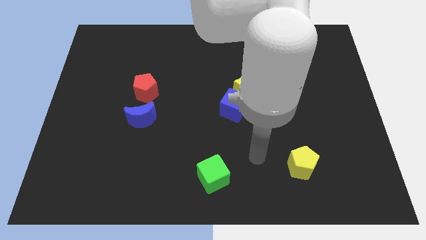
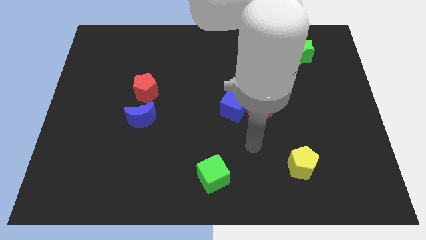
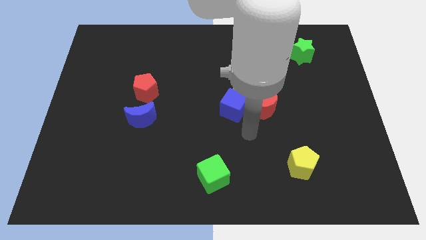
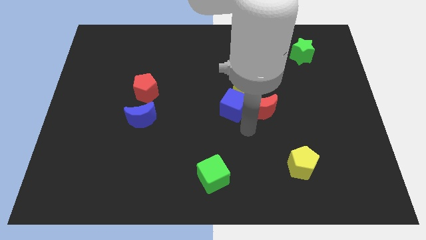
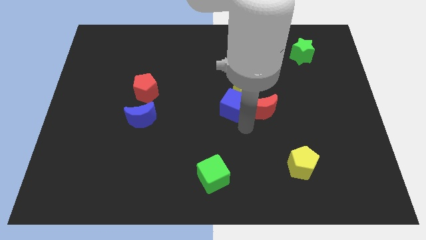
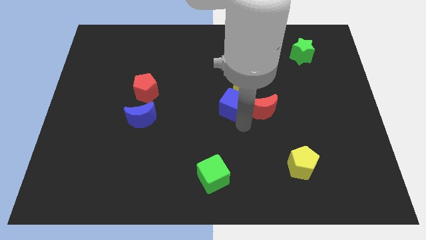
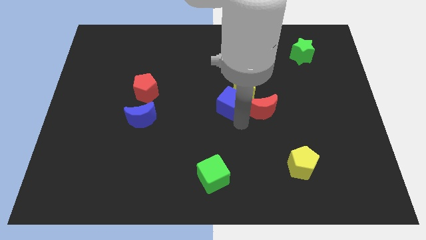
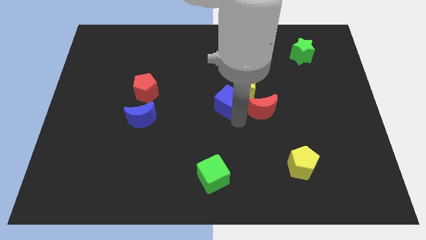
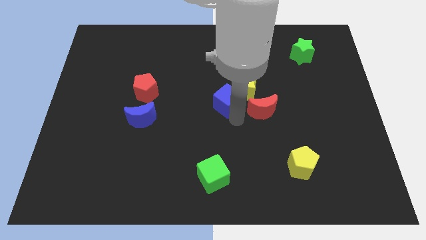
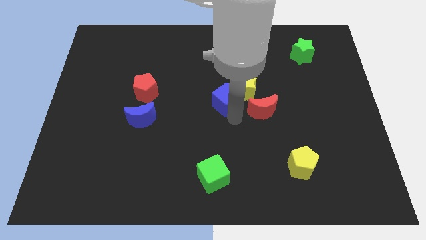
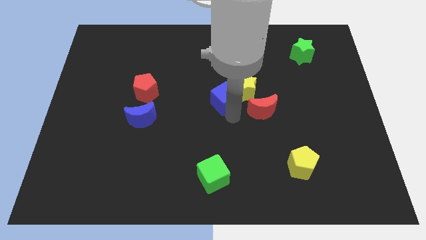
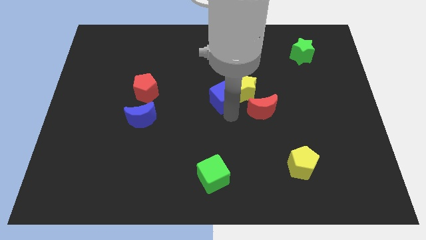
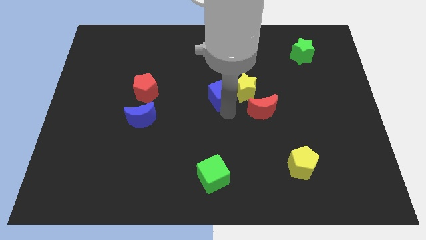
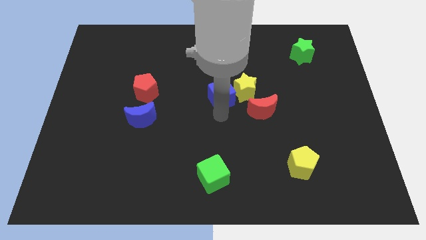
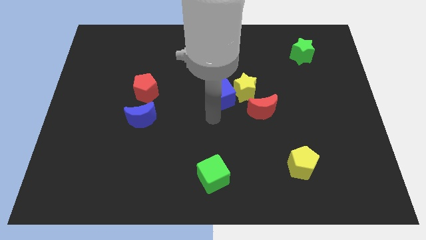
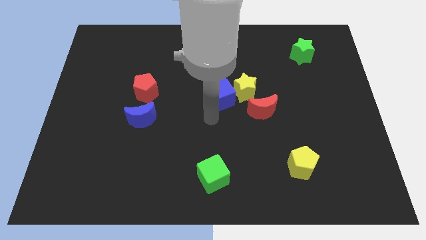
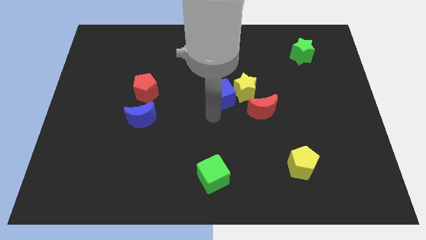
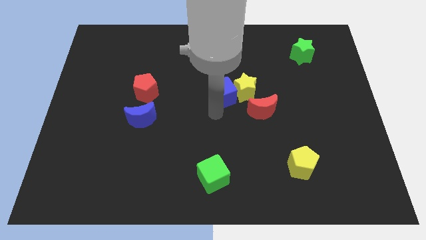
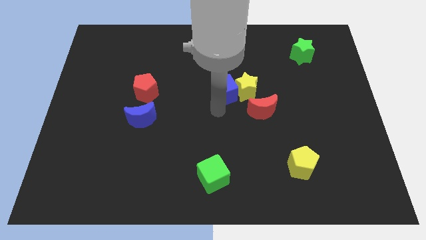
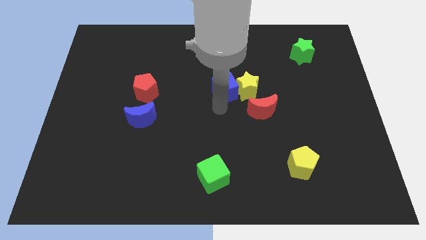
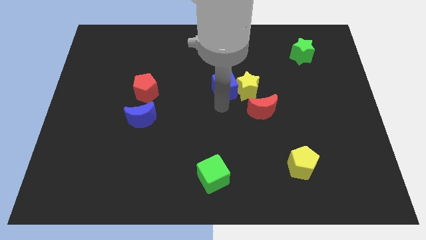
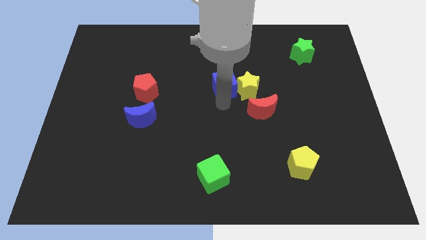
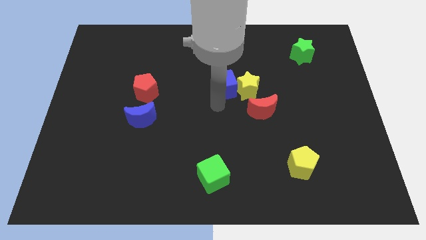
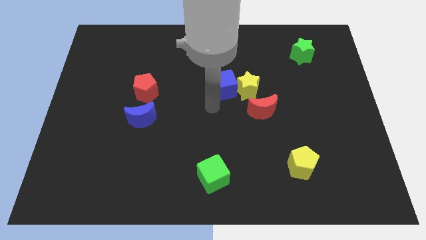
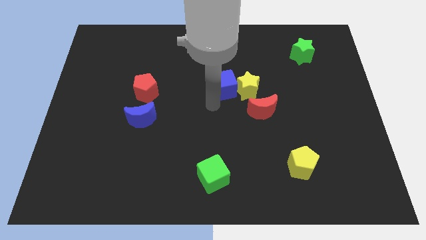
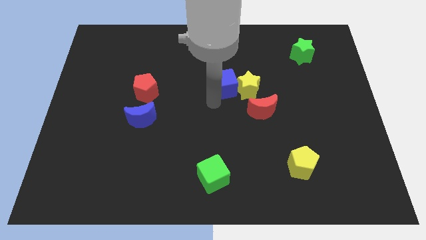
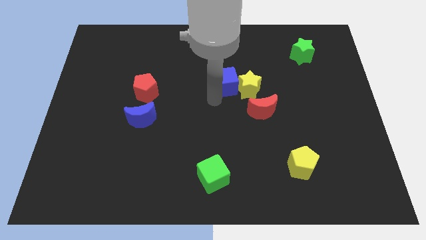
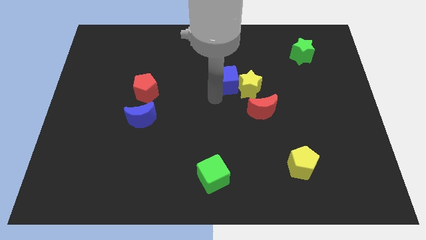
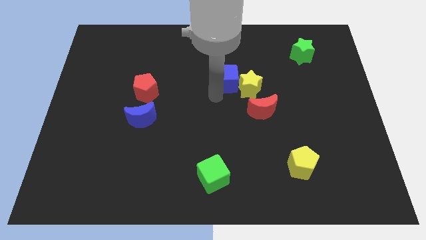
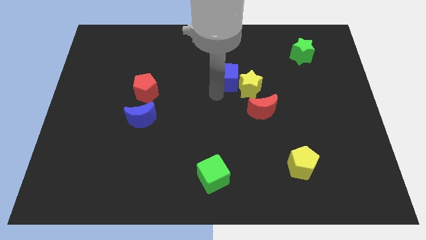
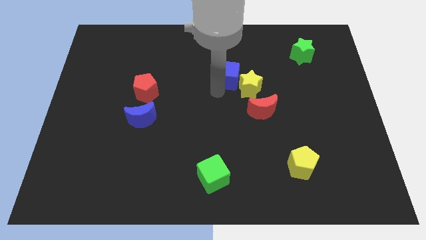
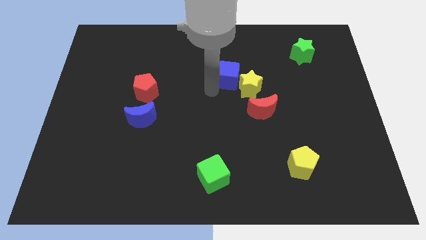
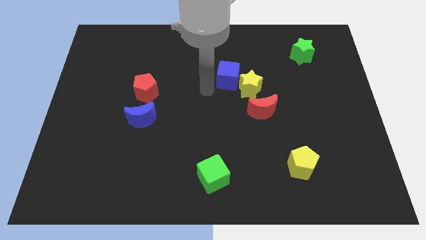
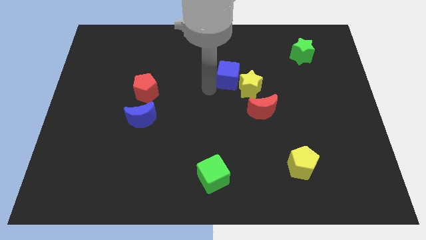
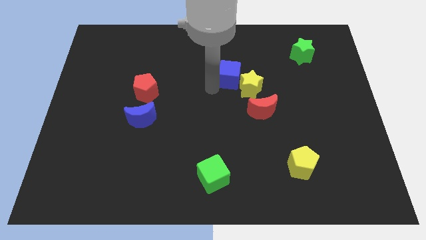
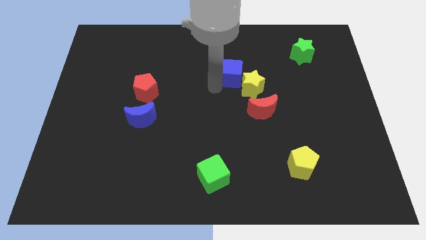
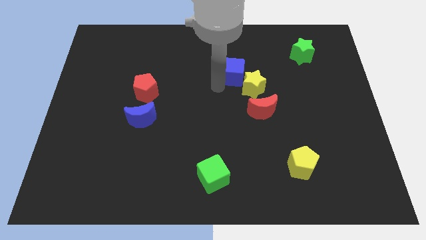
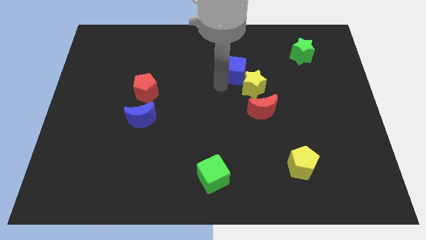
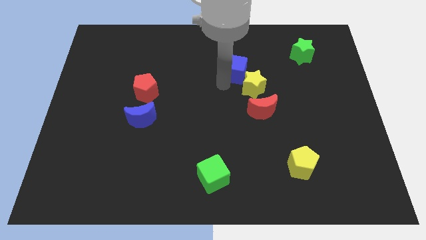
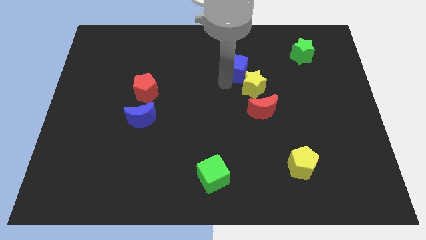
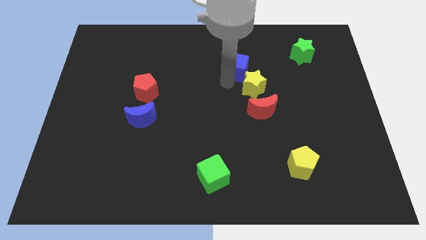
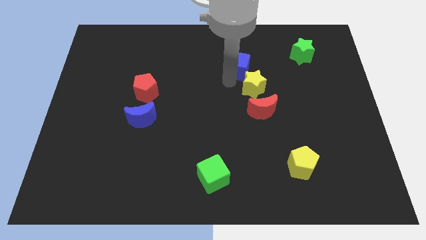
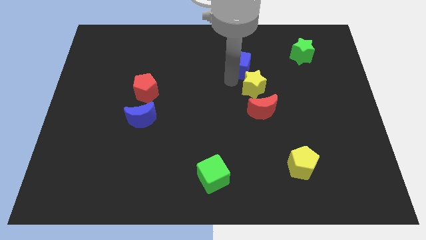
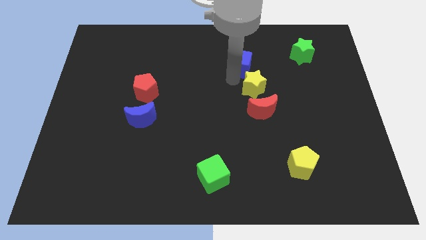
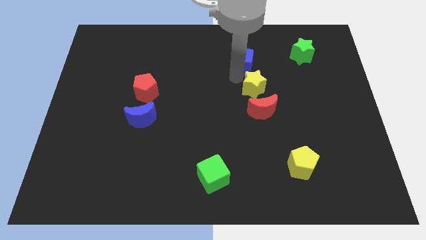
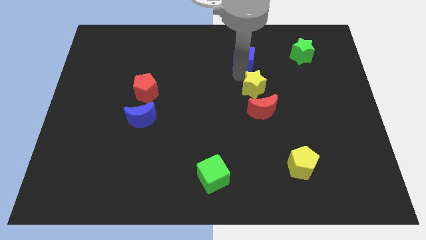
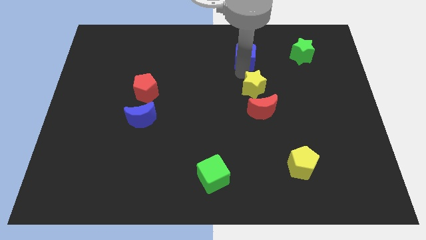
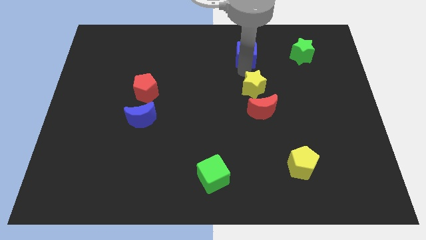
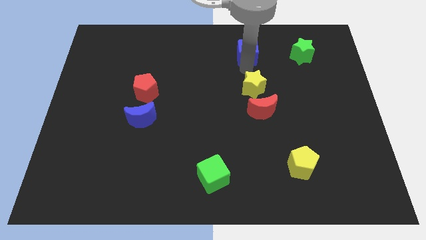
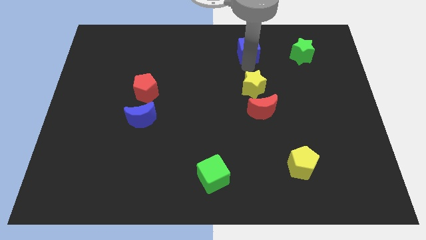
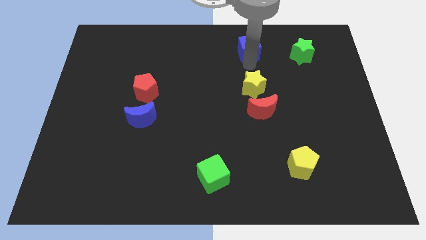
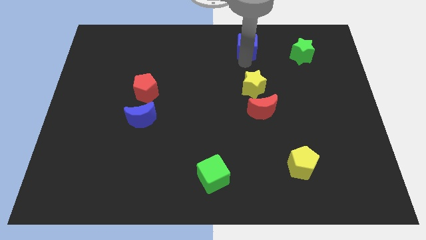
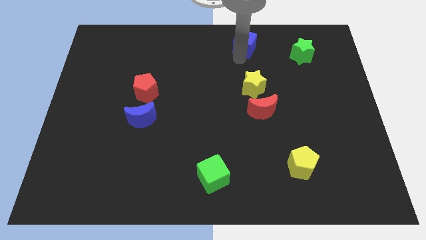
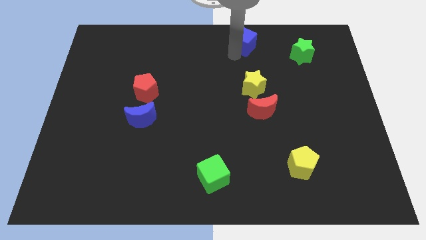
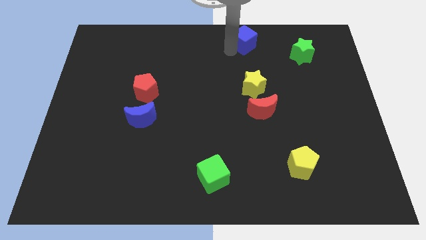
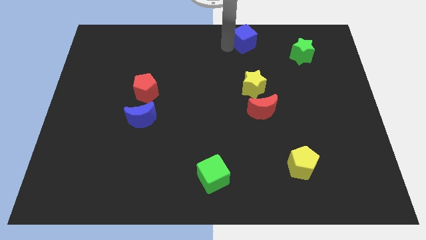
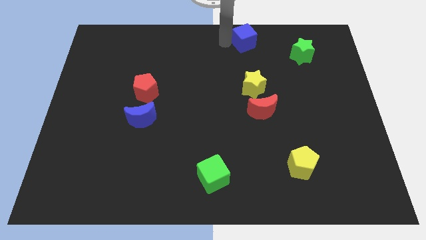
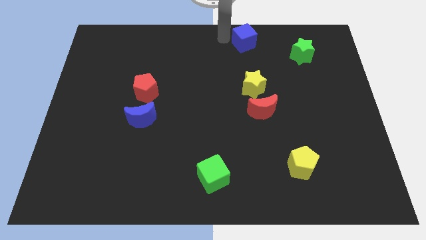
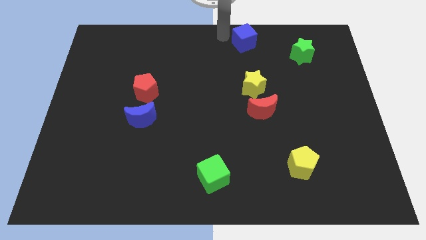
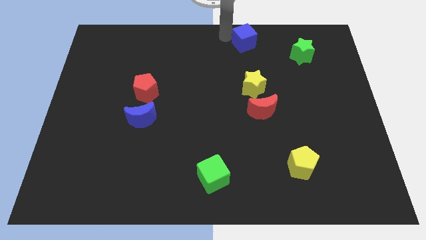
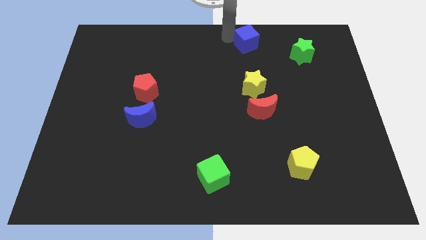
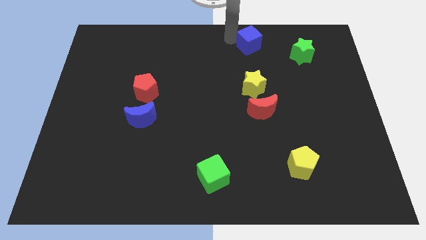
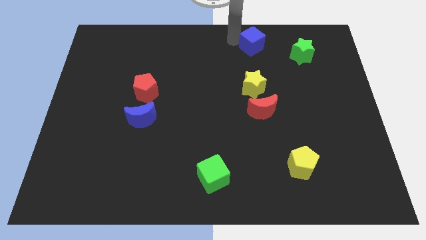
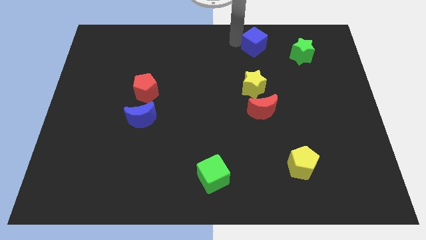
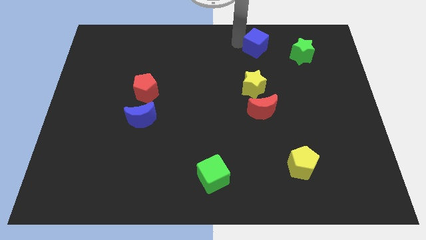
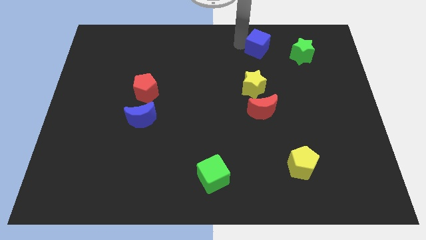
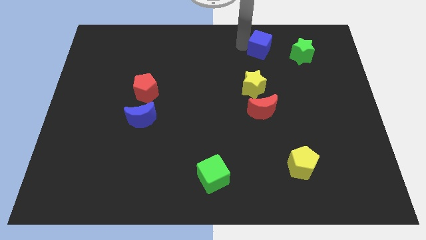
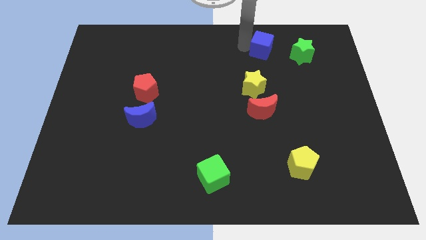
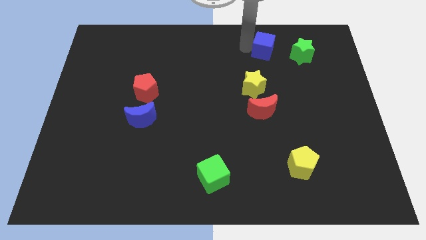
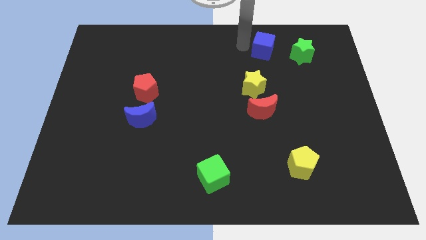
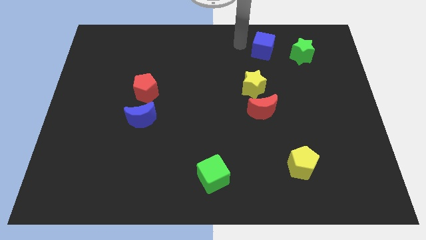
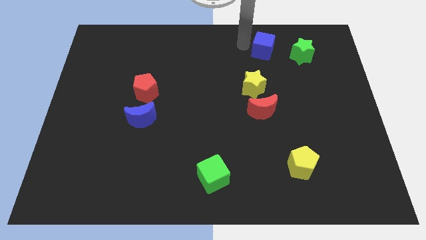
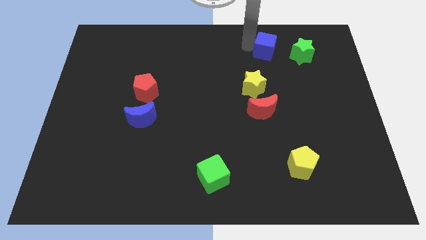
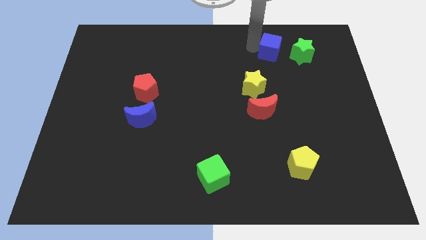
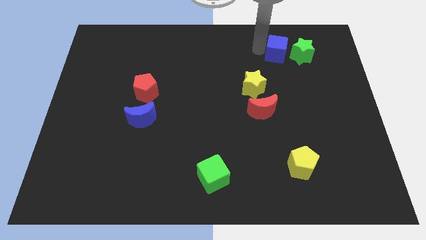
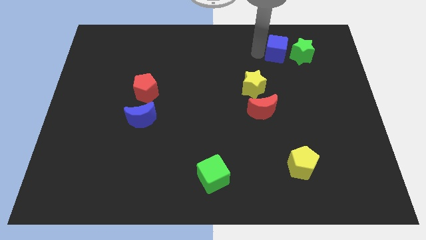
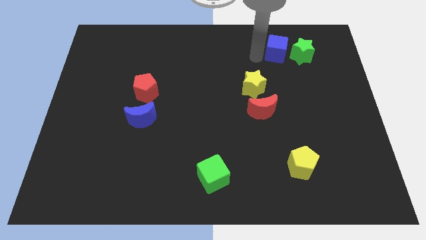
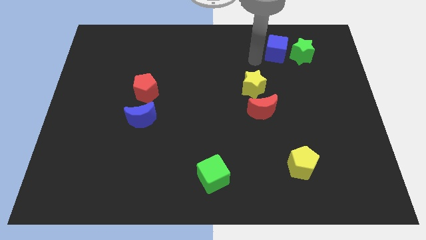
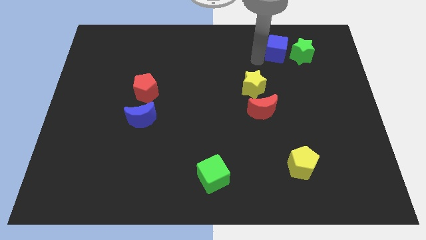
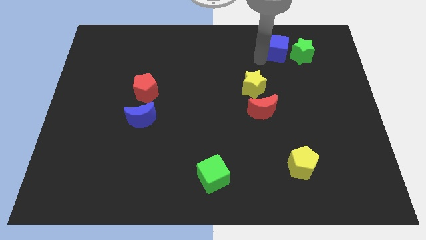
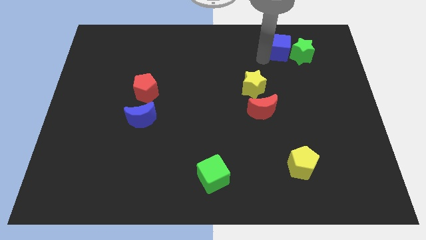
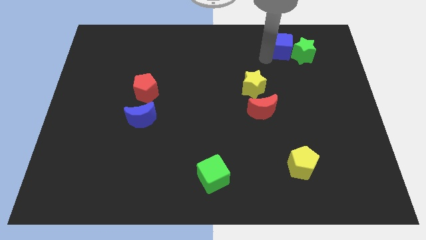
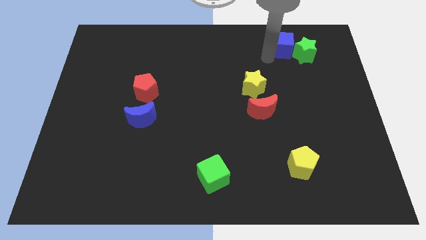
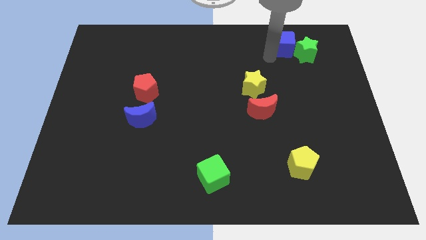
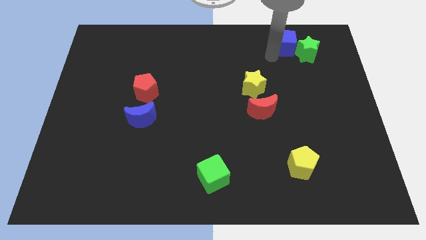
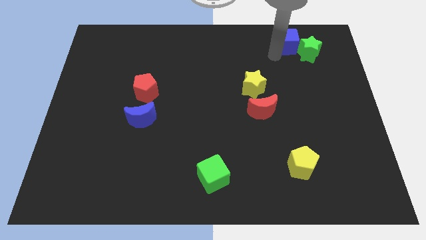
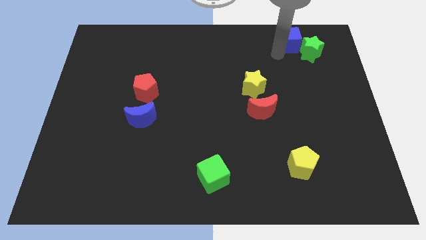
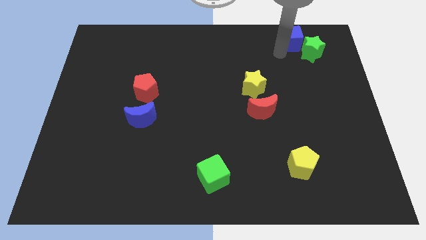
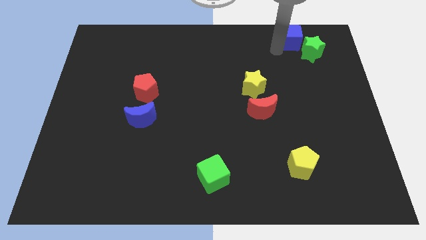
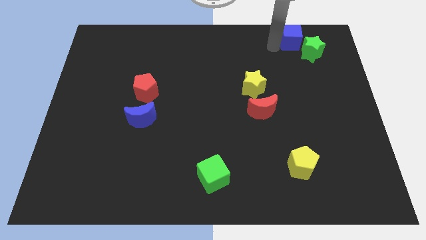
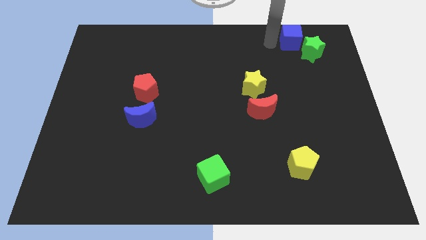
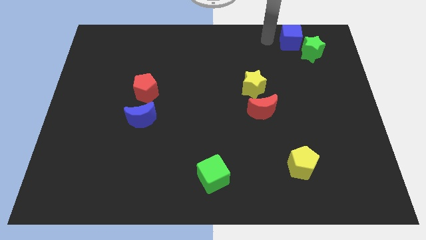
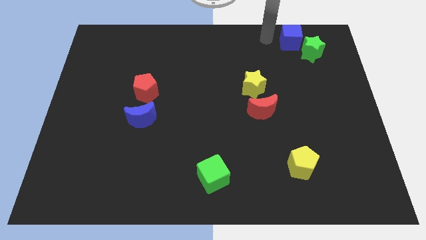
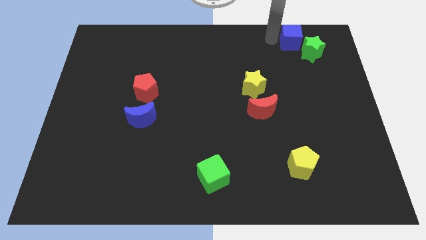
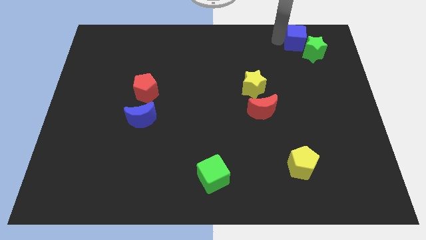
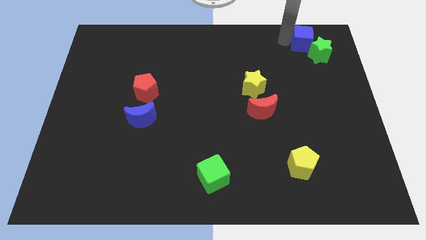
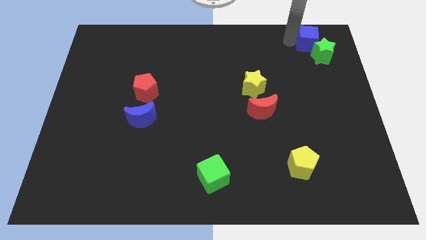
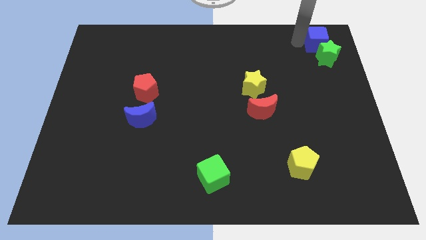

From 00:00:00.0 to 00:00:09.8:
put the blue cube to the top right of the board
